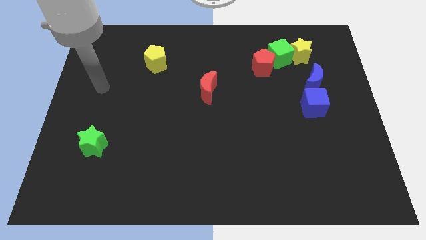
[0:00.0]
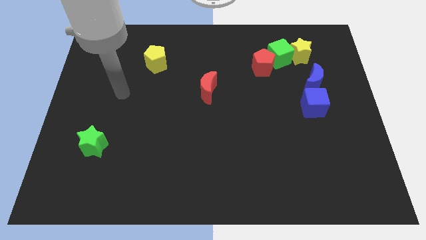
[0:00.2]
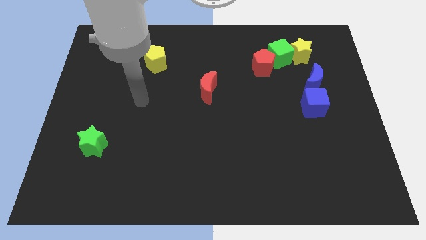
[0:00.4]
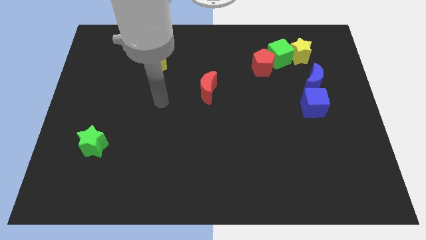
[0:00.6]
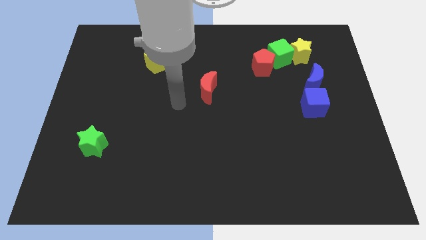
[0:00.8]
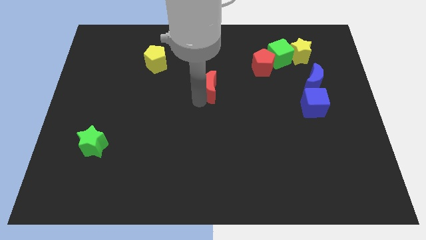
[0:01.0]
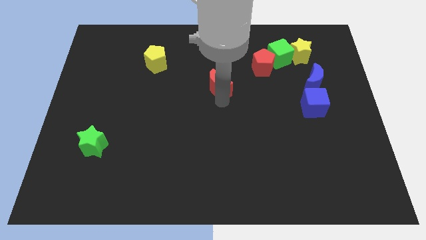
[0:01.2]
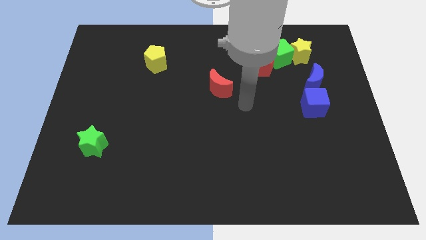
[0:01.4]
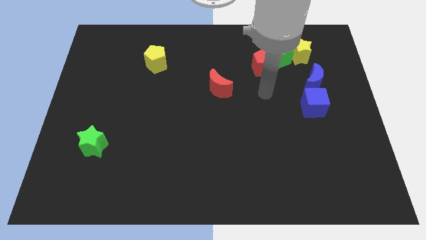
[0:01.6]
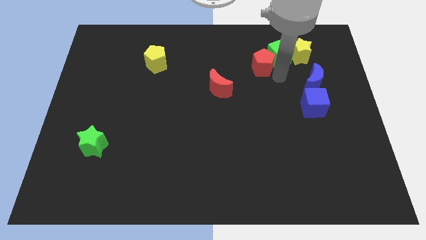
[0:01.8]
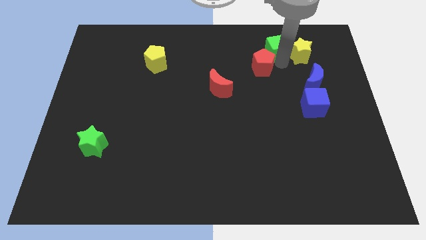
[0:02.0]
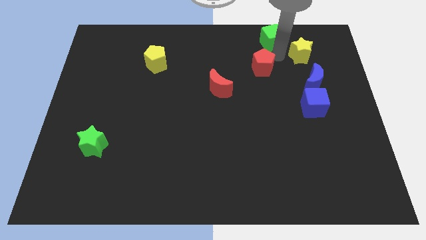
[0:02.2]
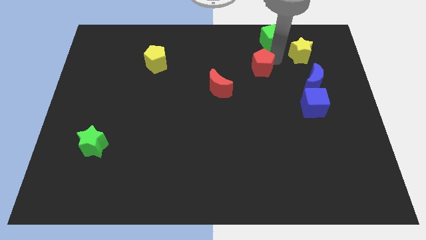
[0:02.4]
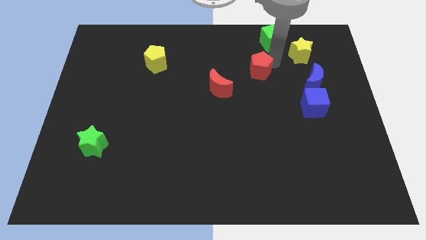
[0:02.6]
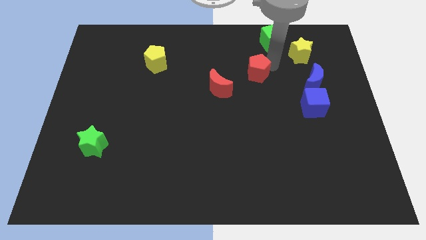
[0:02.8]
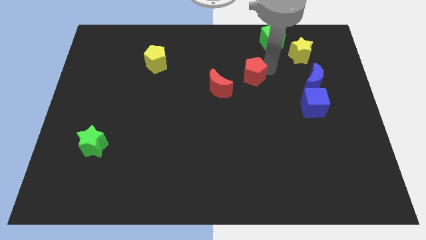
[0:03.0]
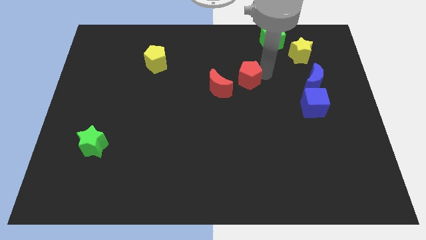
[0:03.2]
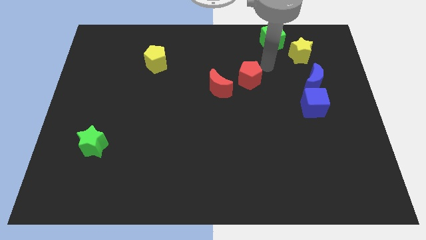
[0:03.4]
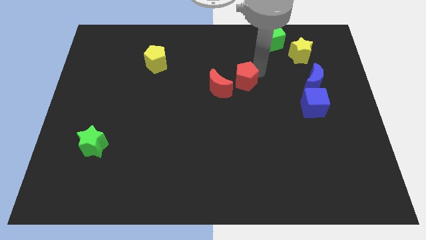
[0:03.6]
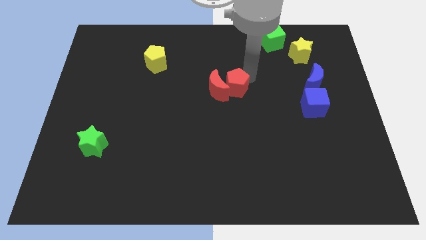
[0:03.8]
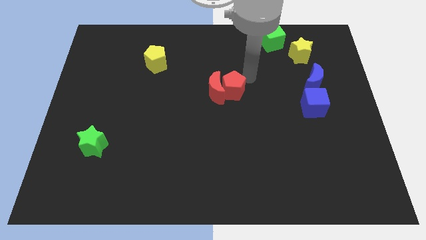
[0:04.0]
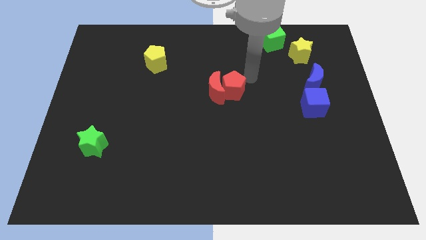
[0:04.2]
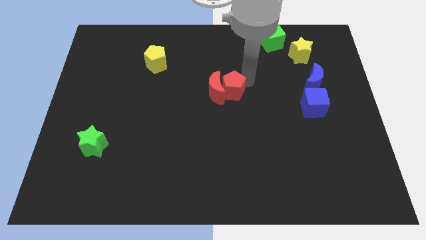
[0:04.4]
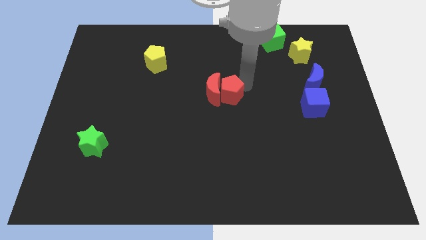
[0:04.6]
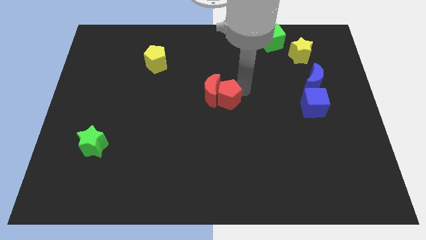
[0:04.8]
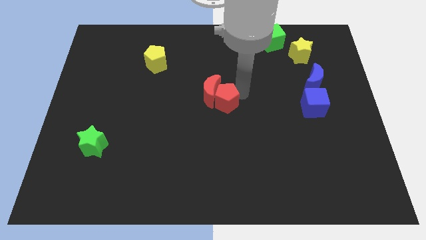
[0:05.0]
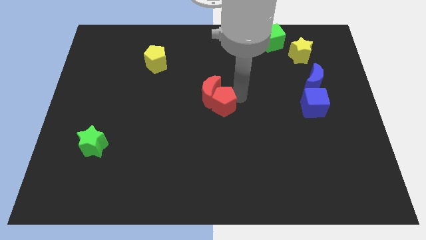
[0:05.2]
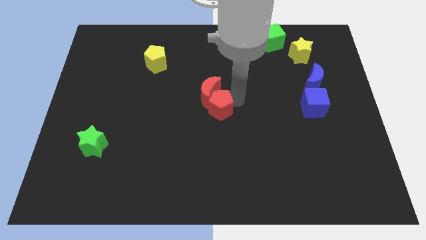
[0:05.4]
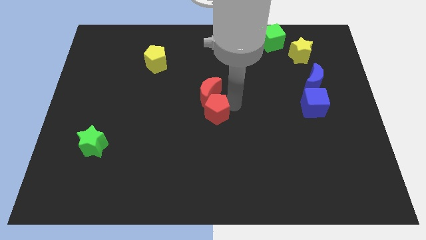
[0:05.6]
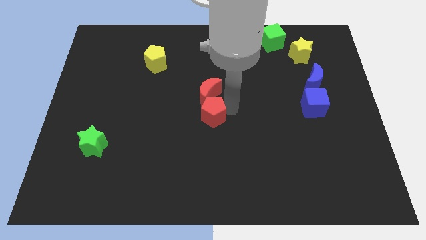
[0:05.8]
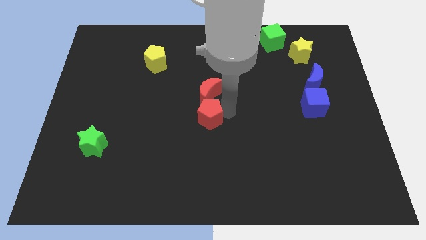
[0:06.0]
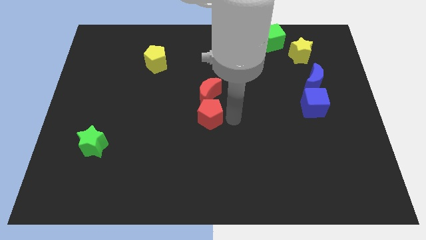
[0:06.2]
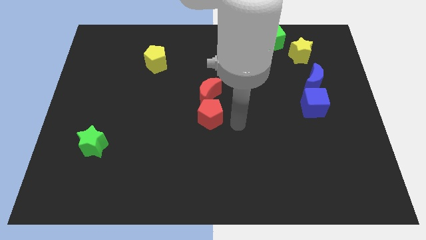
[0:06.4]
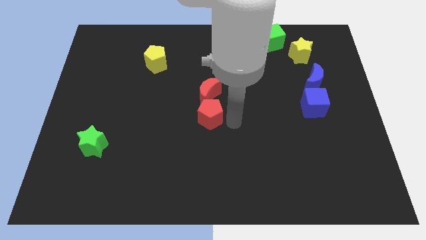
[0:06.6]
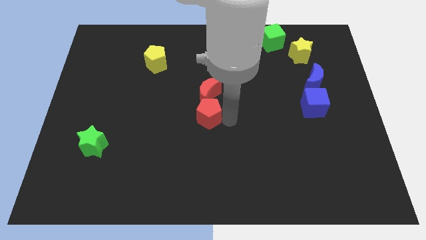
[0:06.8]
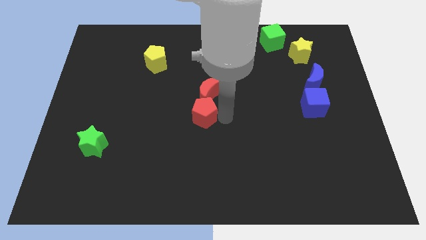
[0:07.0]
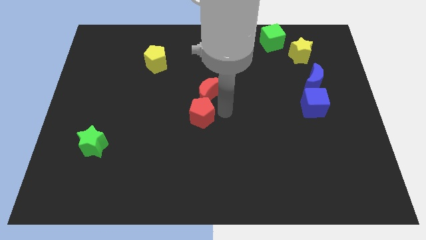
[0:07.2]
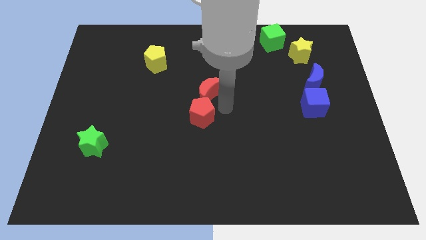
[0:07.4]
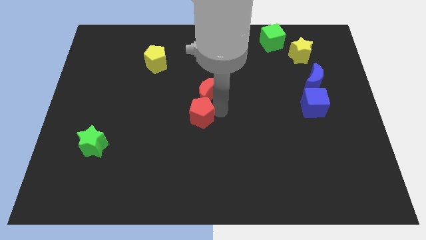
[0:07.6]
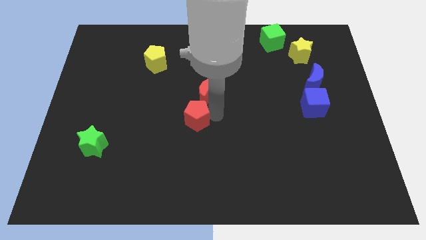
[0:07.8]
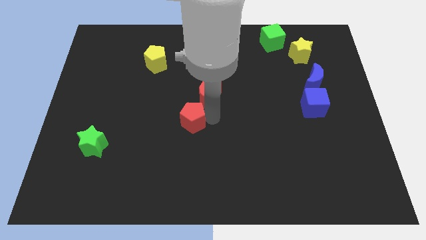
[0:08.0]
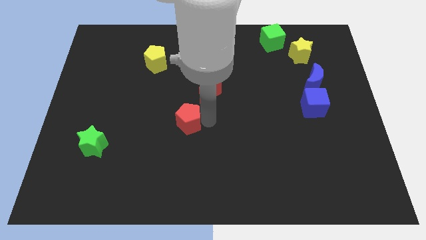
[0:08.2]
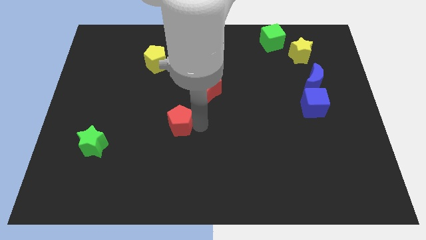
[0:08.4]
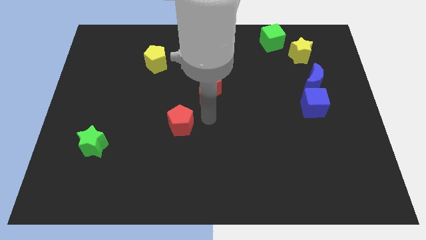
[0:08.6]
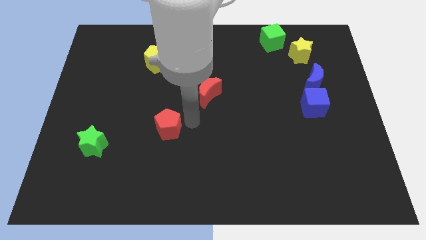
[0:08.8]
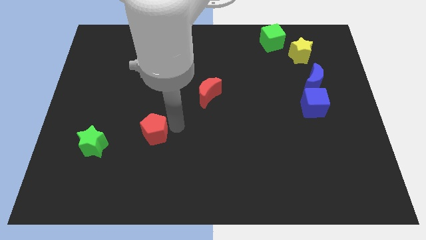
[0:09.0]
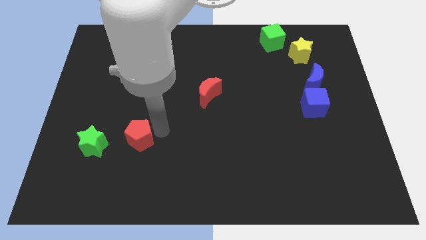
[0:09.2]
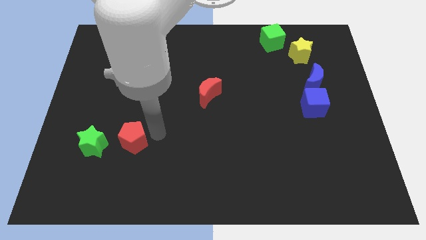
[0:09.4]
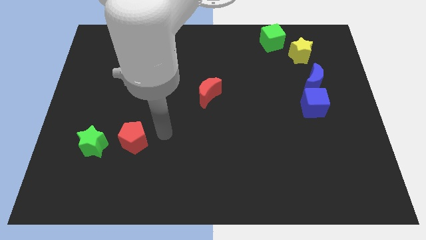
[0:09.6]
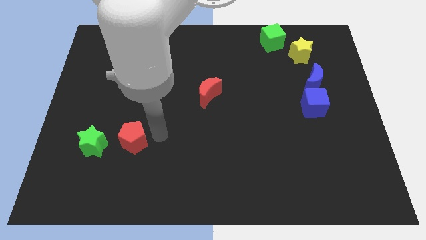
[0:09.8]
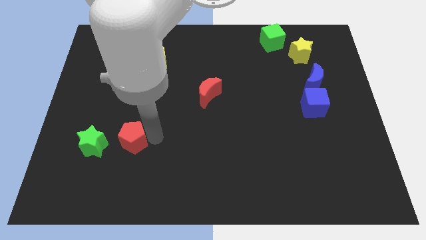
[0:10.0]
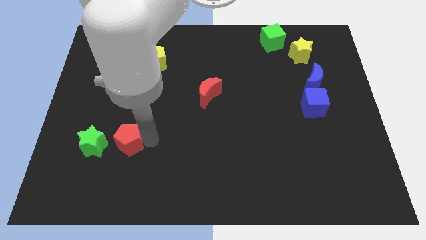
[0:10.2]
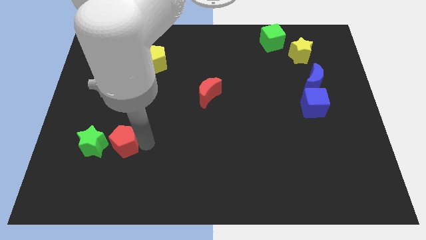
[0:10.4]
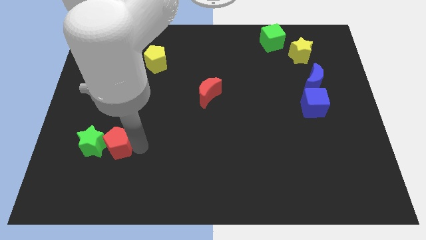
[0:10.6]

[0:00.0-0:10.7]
push the red pentagon next to the green star

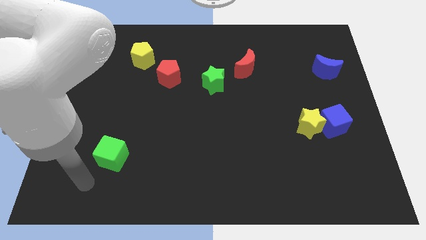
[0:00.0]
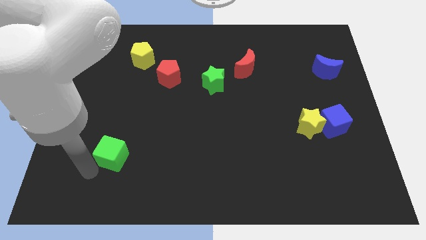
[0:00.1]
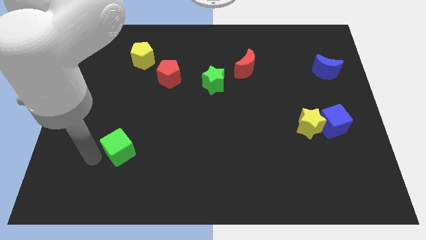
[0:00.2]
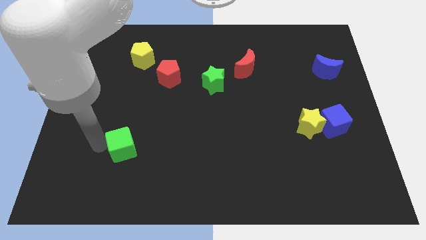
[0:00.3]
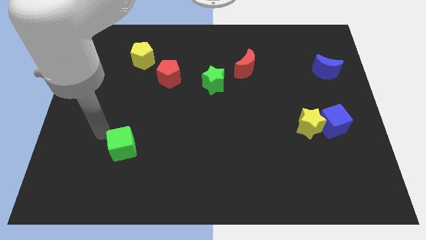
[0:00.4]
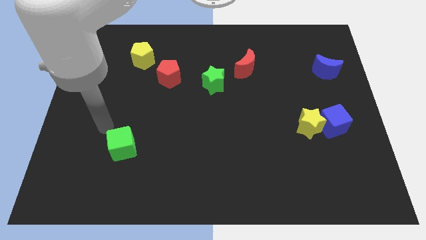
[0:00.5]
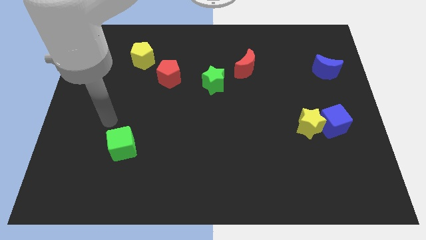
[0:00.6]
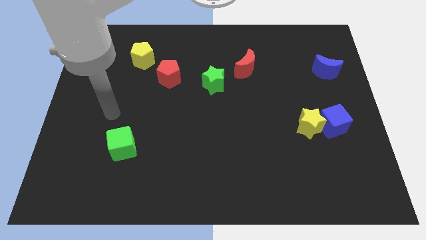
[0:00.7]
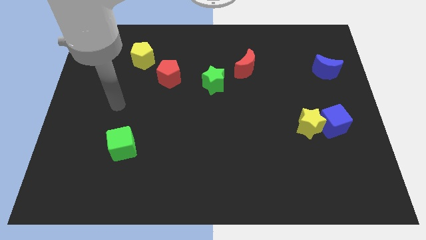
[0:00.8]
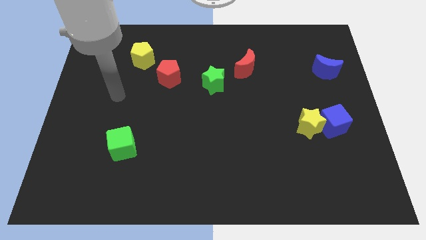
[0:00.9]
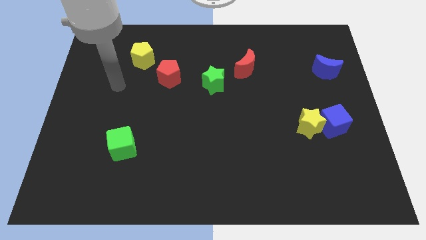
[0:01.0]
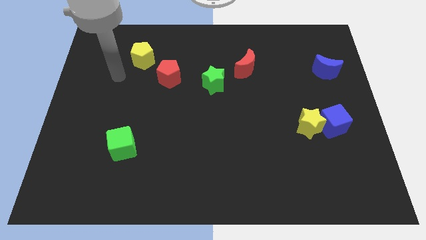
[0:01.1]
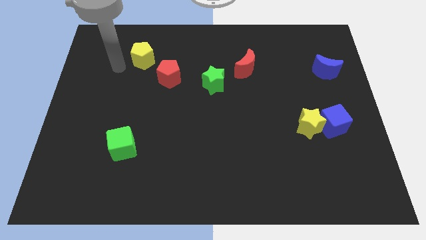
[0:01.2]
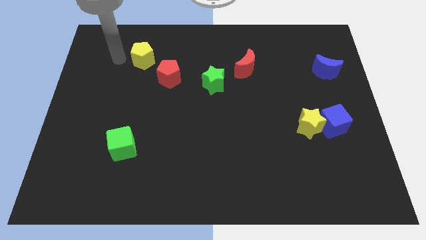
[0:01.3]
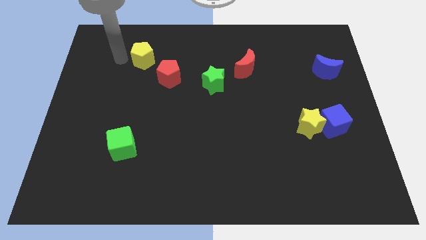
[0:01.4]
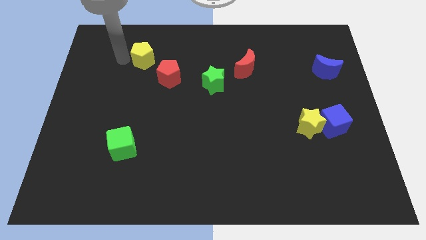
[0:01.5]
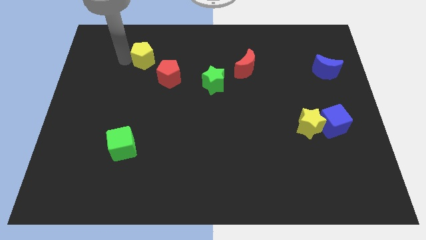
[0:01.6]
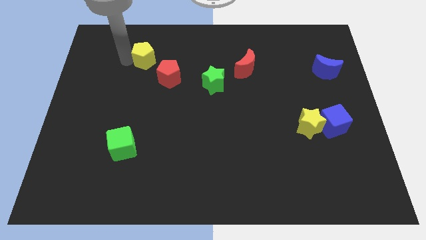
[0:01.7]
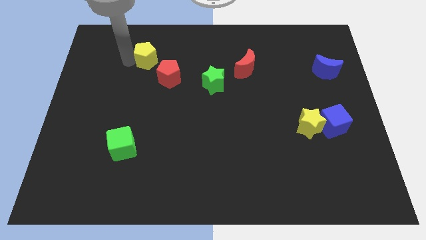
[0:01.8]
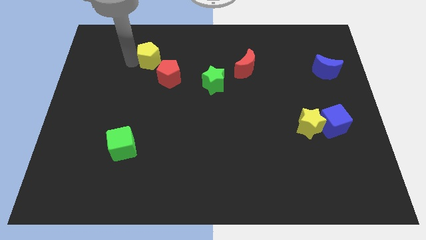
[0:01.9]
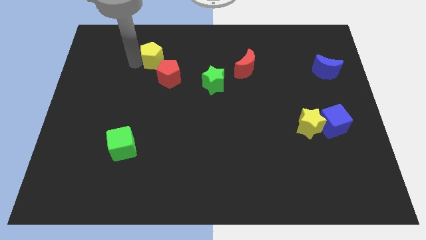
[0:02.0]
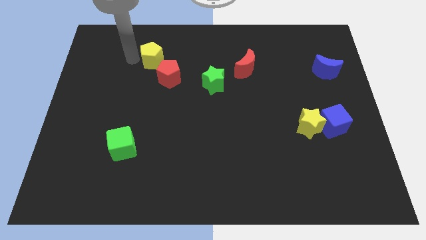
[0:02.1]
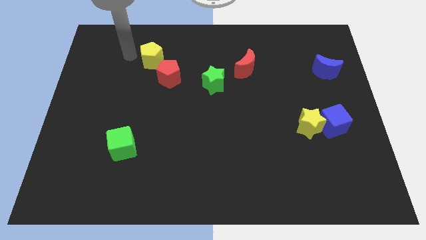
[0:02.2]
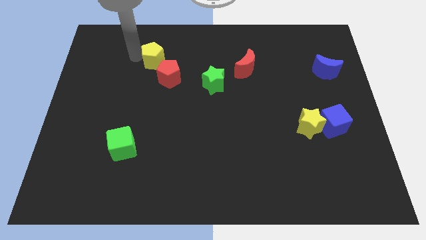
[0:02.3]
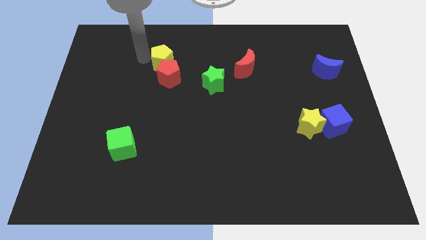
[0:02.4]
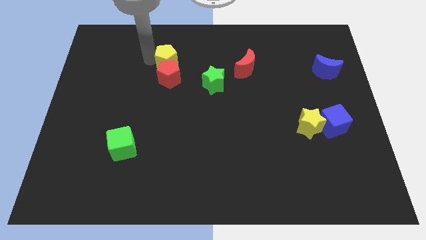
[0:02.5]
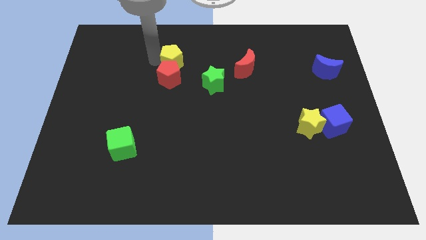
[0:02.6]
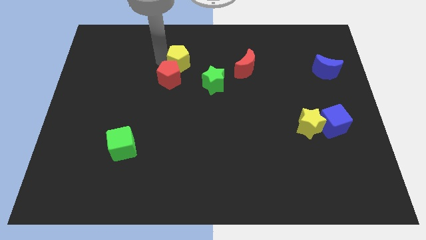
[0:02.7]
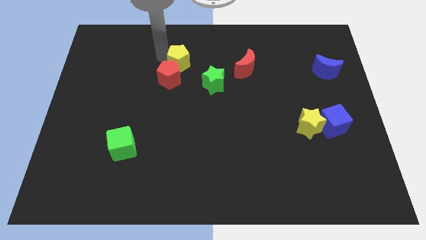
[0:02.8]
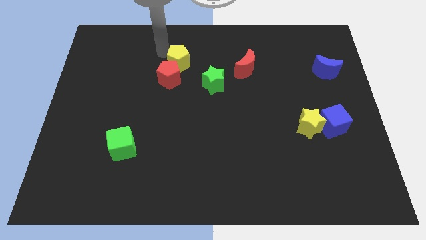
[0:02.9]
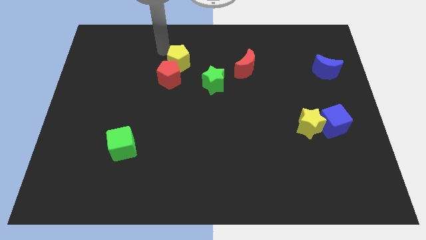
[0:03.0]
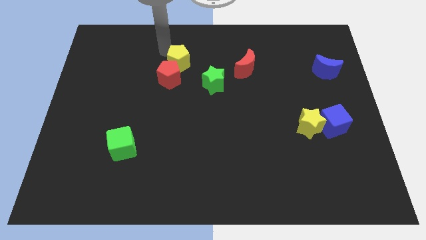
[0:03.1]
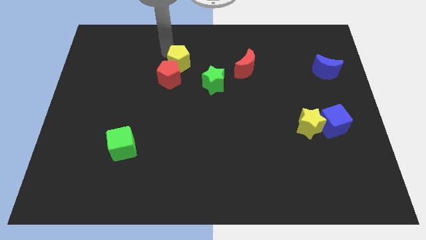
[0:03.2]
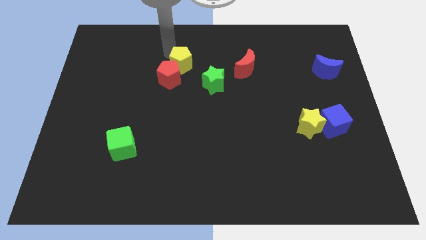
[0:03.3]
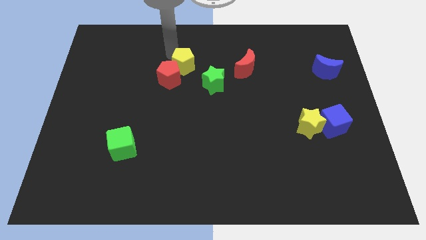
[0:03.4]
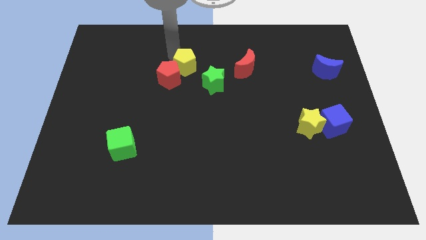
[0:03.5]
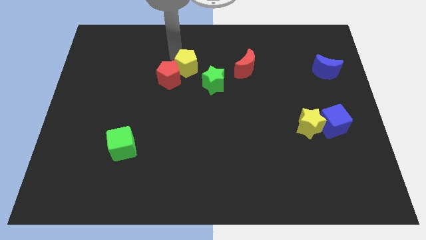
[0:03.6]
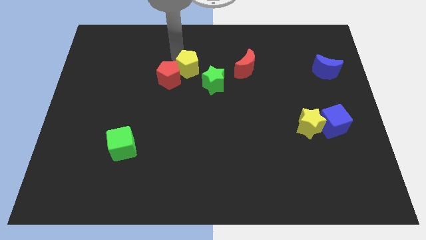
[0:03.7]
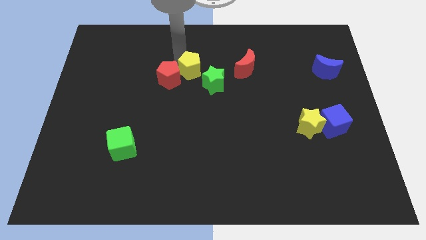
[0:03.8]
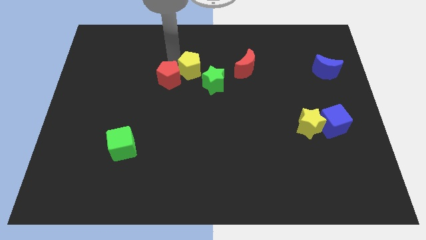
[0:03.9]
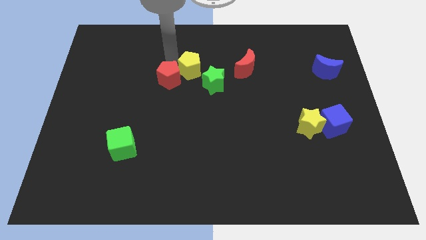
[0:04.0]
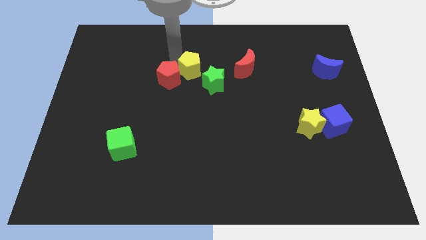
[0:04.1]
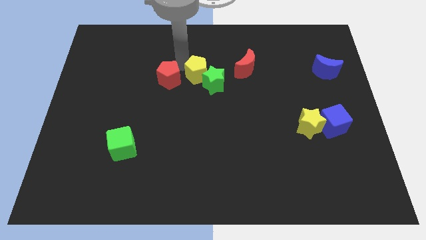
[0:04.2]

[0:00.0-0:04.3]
move the yellow pentagon close to the green star
